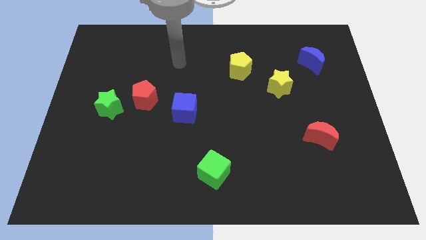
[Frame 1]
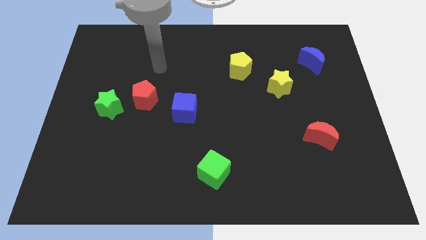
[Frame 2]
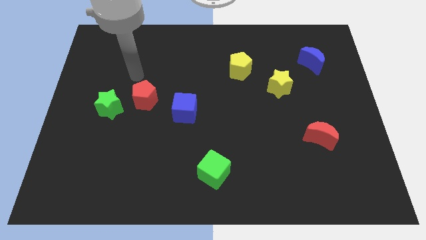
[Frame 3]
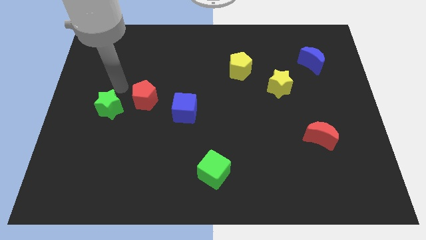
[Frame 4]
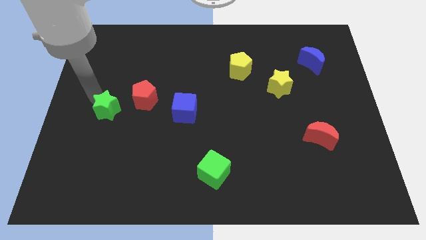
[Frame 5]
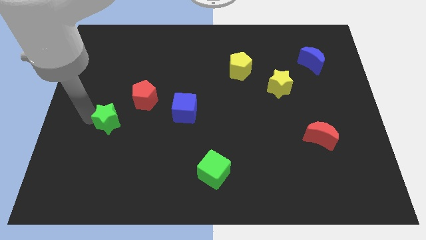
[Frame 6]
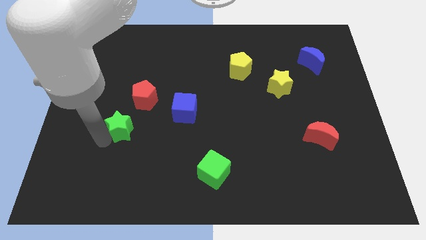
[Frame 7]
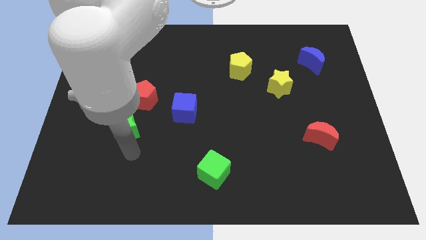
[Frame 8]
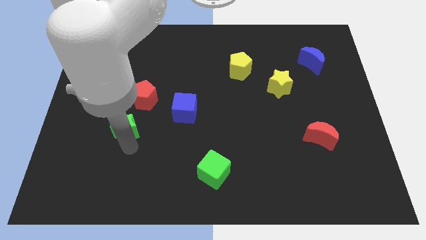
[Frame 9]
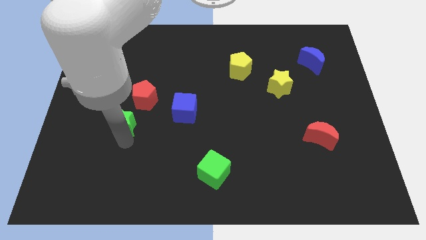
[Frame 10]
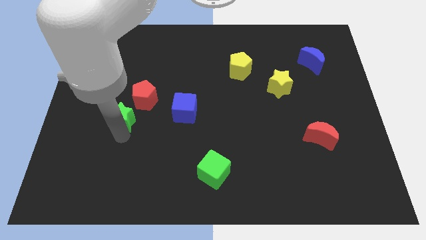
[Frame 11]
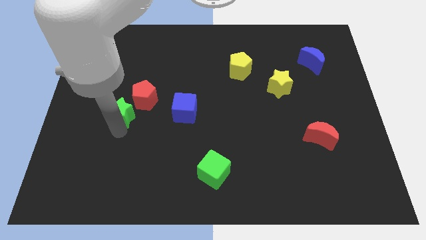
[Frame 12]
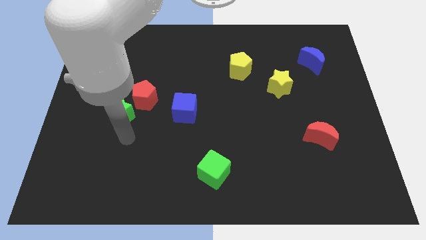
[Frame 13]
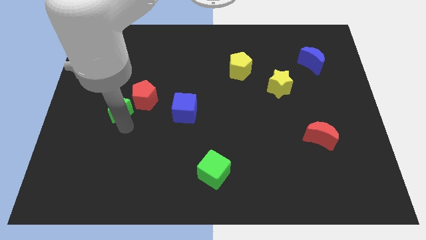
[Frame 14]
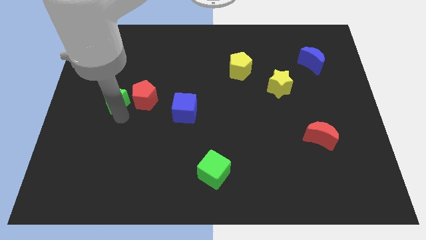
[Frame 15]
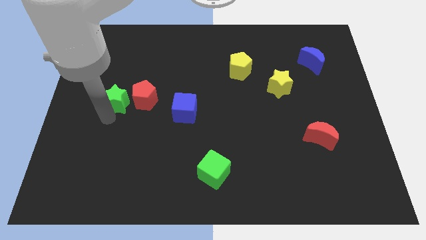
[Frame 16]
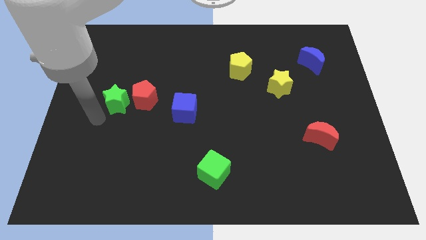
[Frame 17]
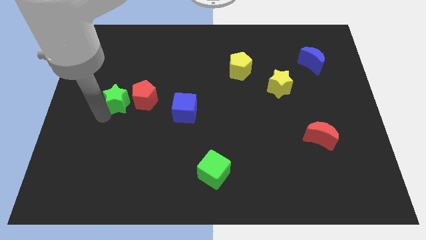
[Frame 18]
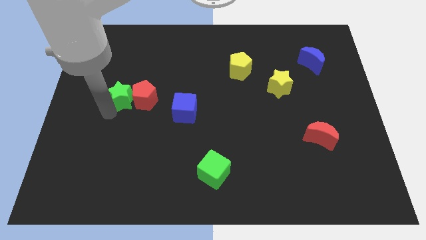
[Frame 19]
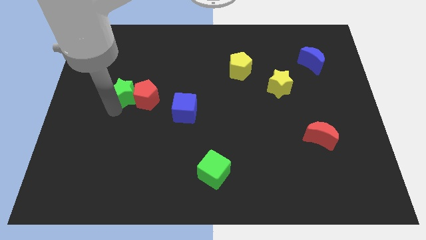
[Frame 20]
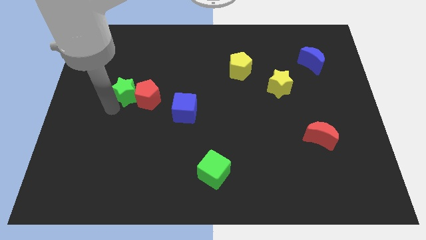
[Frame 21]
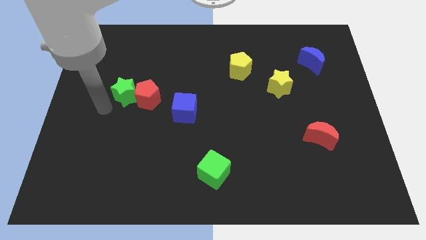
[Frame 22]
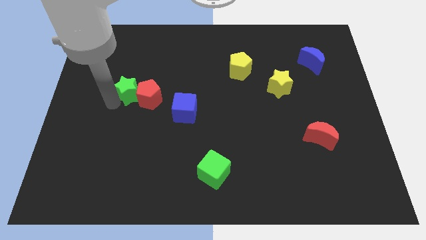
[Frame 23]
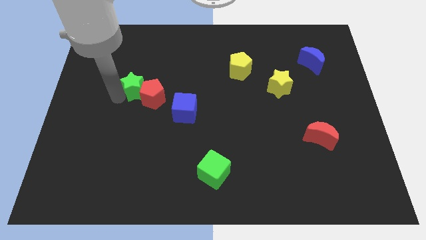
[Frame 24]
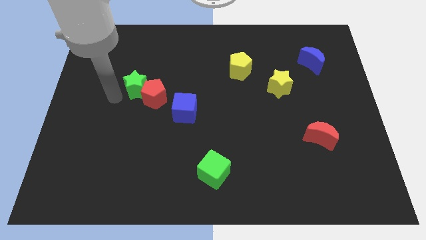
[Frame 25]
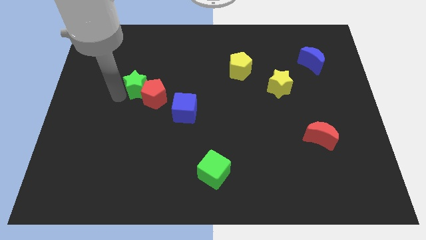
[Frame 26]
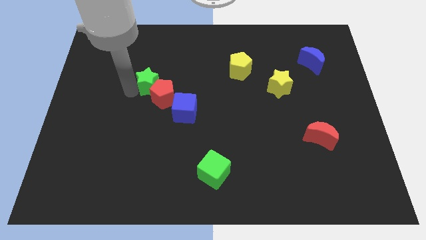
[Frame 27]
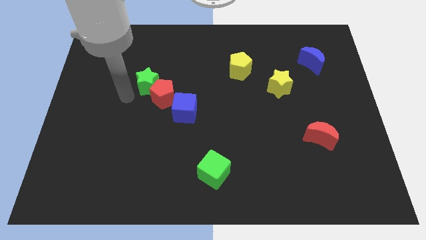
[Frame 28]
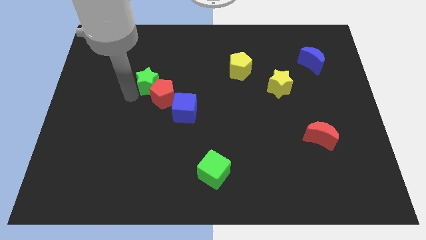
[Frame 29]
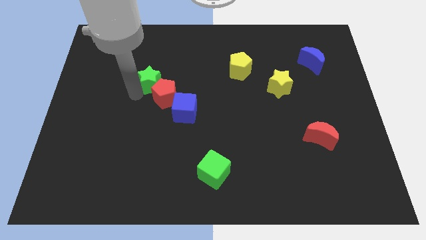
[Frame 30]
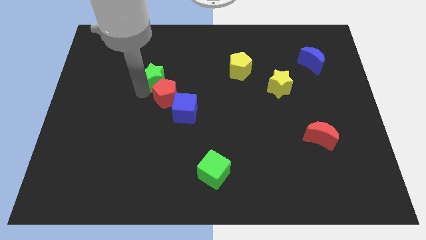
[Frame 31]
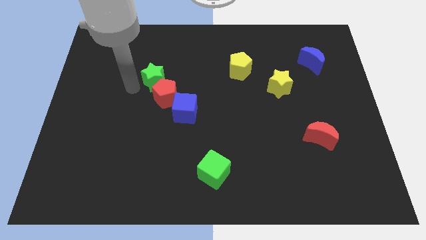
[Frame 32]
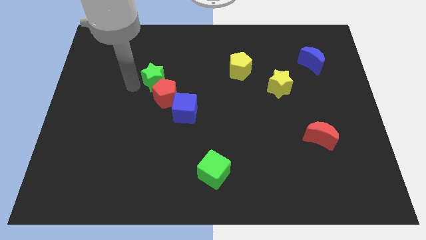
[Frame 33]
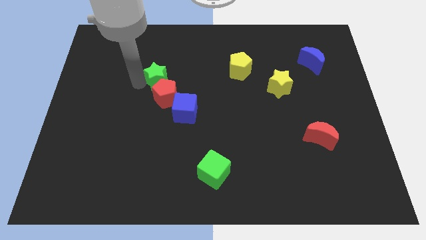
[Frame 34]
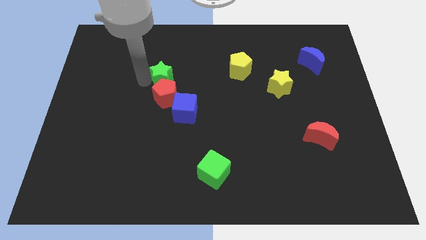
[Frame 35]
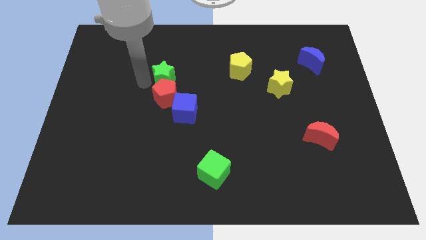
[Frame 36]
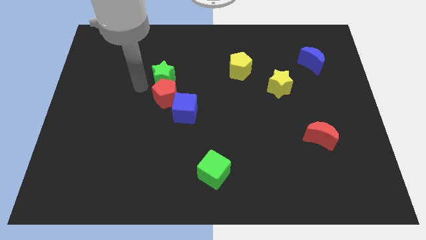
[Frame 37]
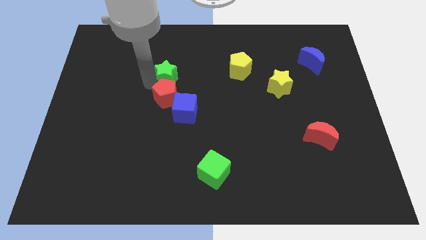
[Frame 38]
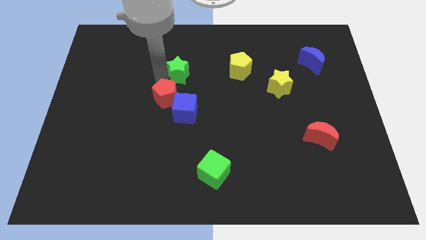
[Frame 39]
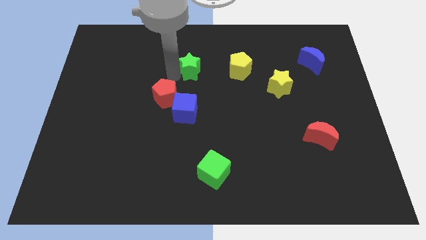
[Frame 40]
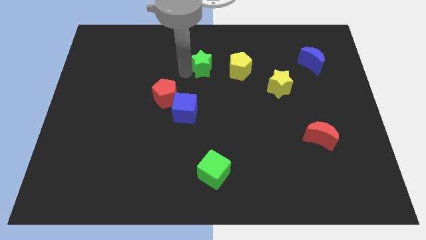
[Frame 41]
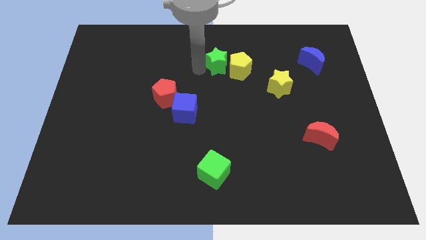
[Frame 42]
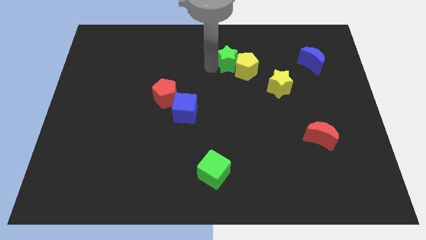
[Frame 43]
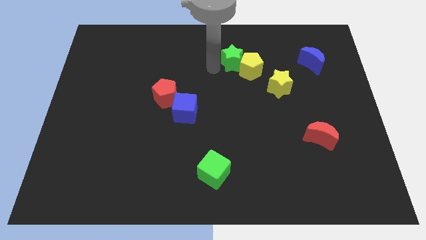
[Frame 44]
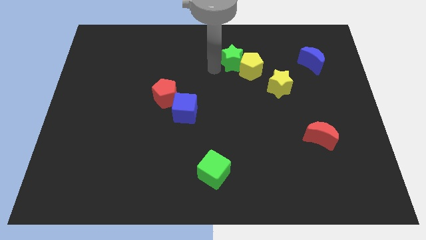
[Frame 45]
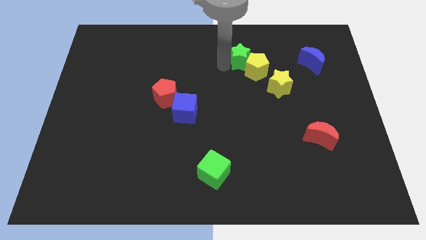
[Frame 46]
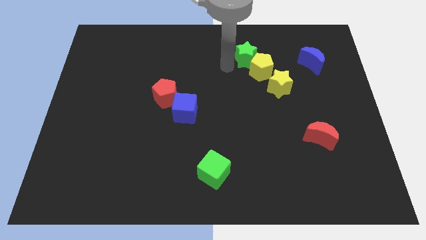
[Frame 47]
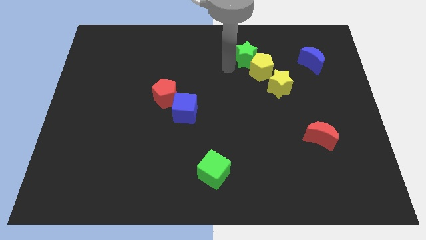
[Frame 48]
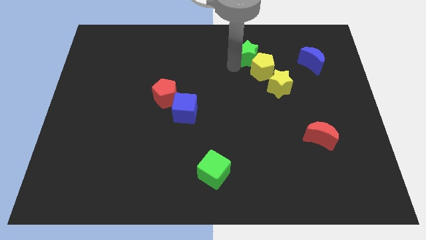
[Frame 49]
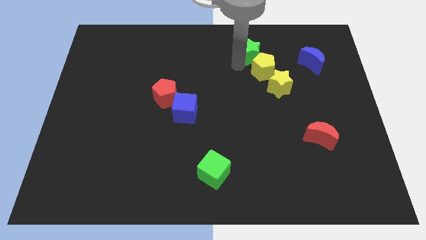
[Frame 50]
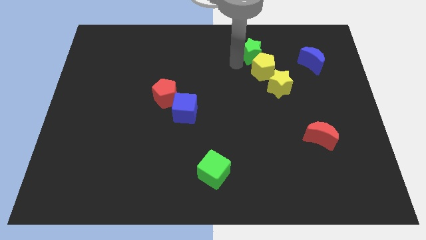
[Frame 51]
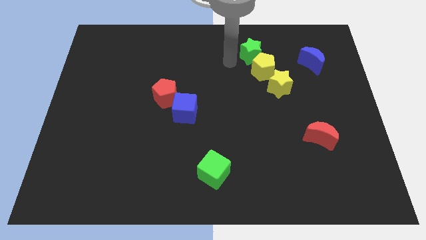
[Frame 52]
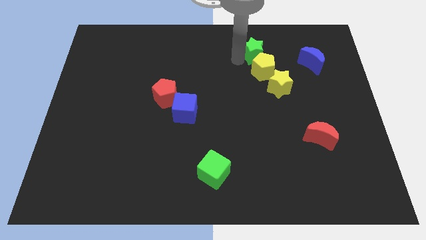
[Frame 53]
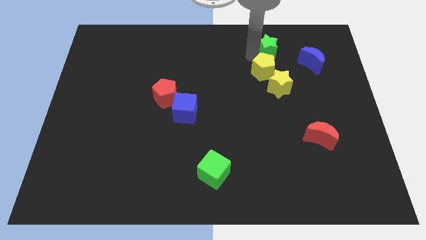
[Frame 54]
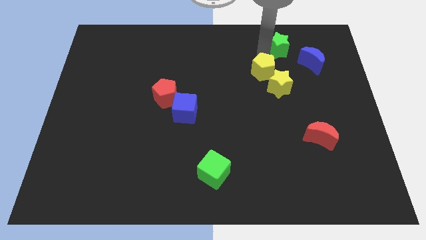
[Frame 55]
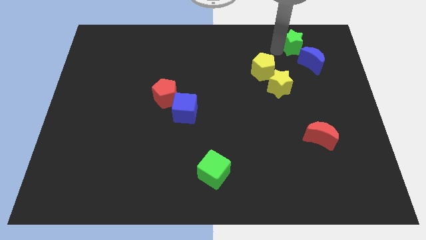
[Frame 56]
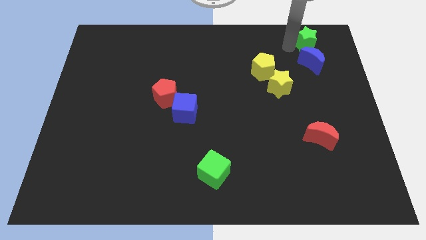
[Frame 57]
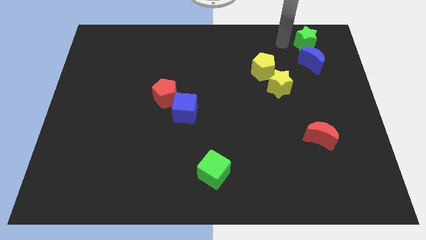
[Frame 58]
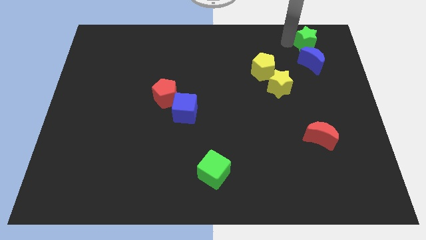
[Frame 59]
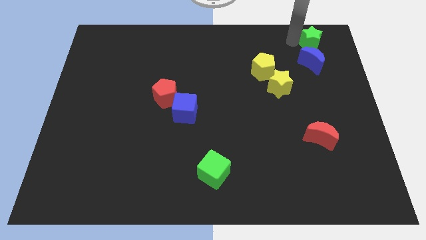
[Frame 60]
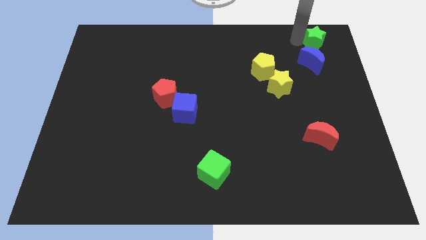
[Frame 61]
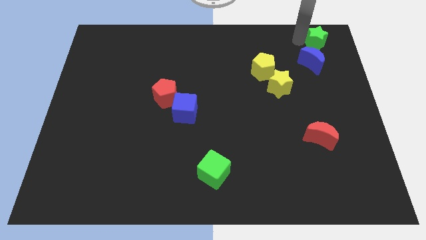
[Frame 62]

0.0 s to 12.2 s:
put the green star to the top right of the board

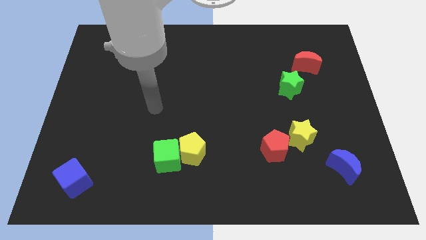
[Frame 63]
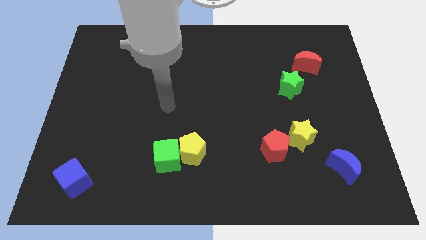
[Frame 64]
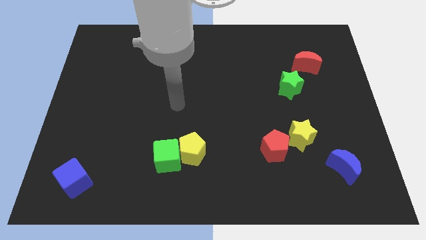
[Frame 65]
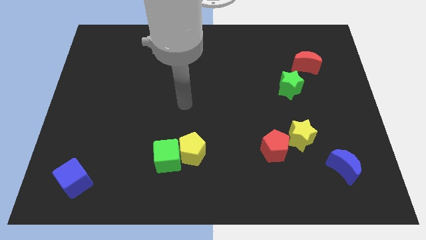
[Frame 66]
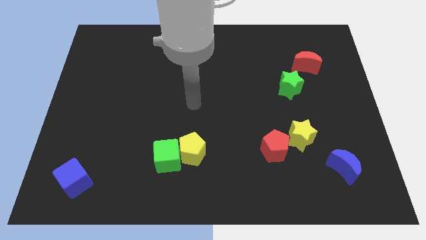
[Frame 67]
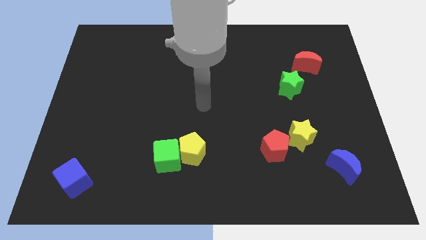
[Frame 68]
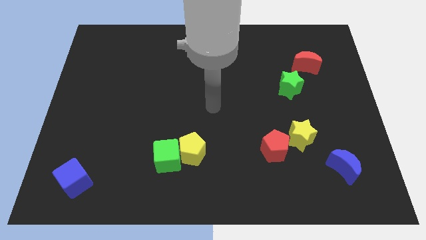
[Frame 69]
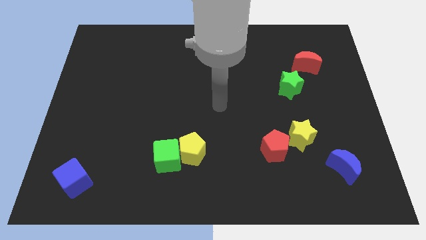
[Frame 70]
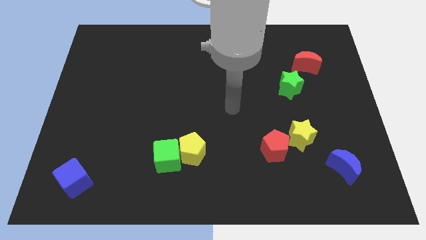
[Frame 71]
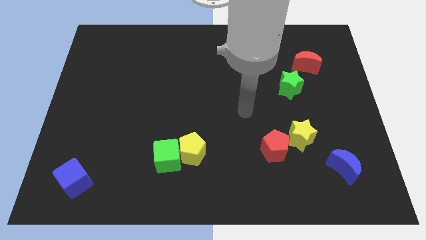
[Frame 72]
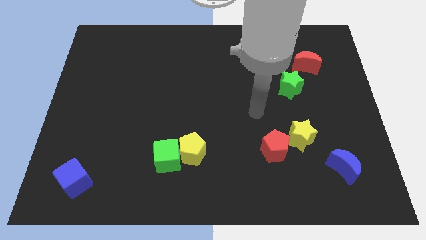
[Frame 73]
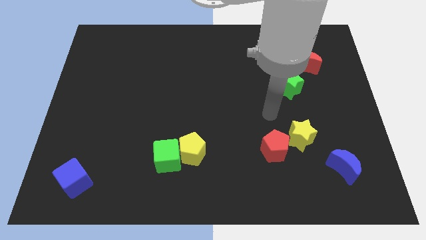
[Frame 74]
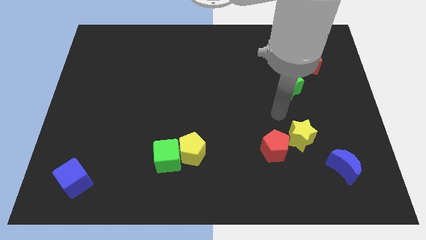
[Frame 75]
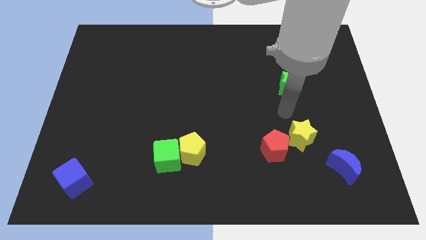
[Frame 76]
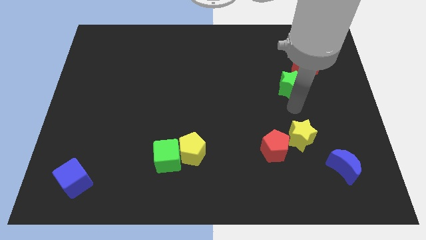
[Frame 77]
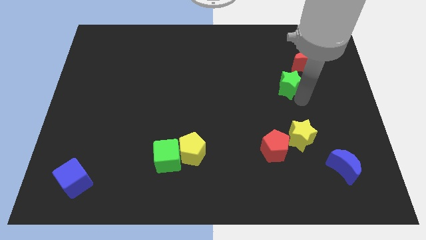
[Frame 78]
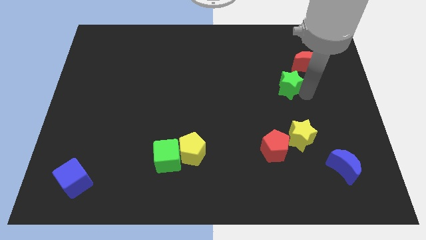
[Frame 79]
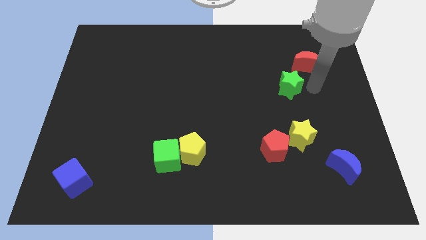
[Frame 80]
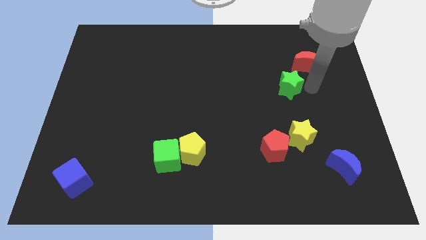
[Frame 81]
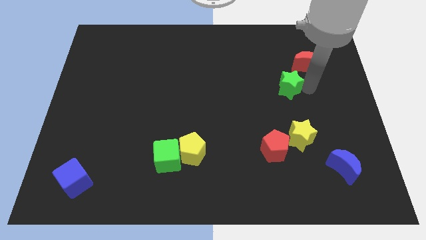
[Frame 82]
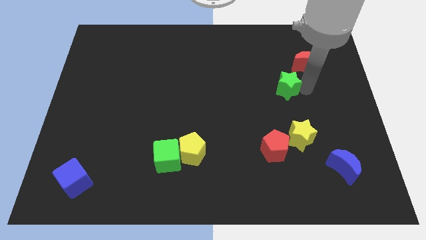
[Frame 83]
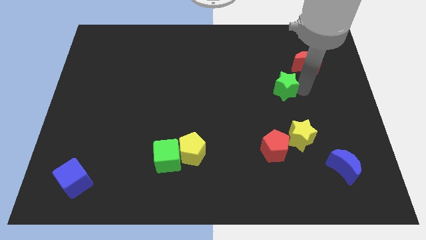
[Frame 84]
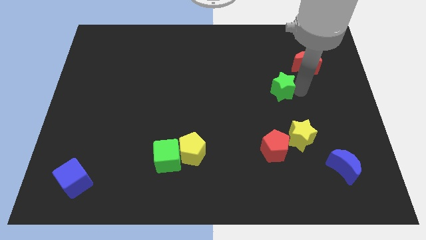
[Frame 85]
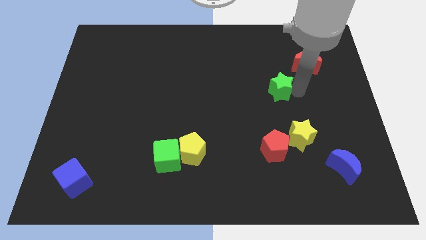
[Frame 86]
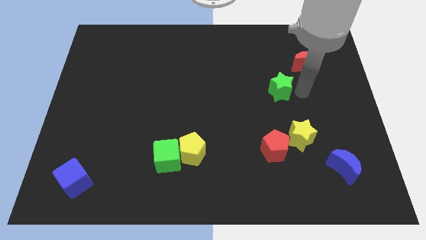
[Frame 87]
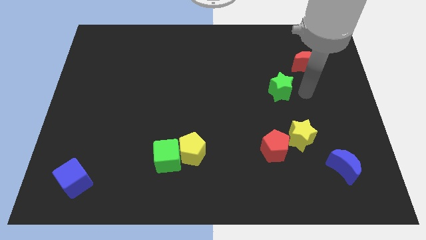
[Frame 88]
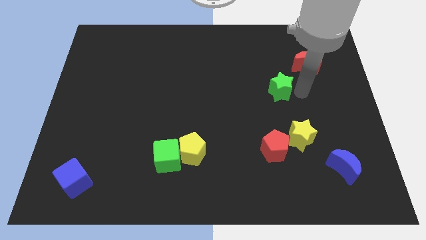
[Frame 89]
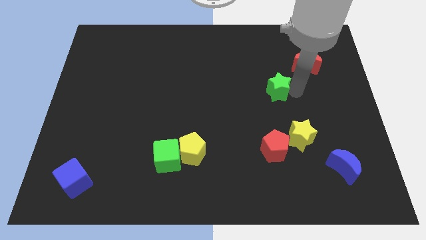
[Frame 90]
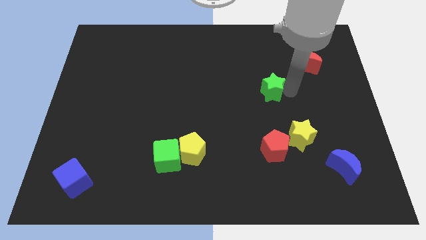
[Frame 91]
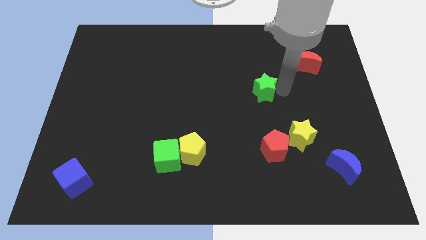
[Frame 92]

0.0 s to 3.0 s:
slide the green star to the middle of the board
